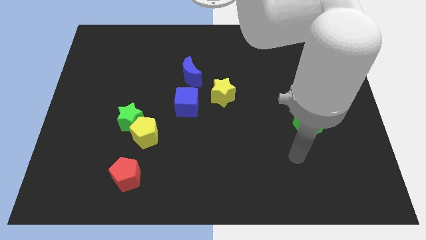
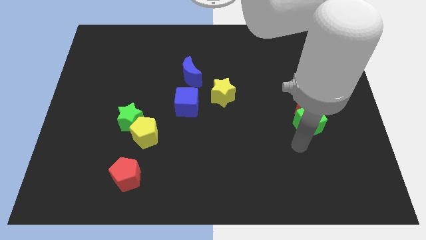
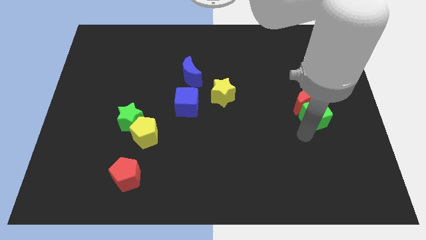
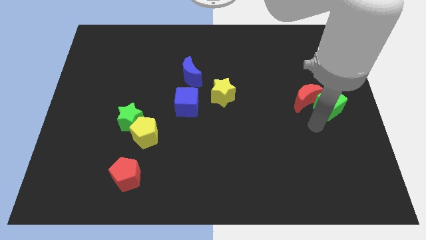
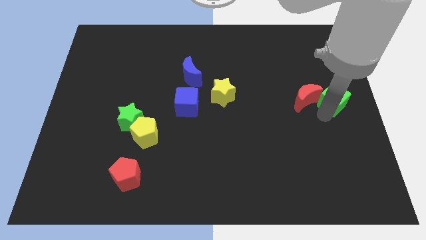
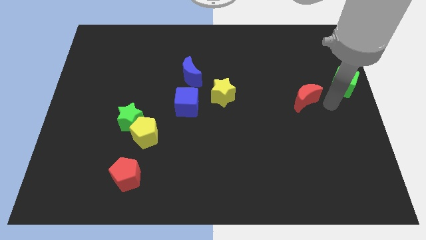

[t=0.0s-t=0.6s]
pull the red moon apart from the green cube

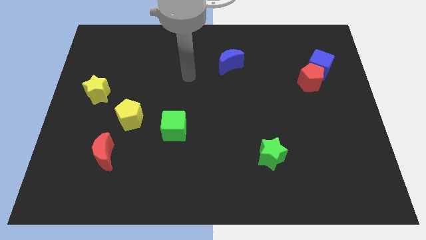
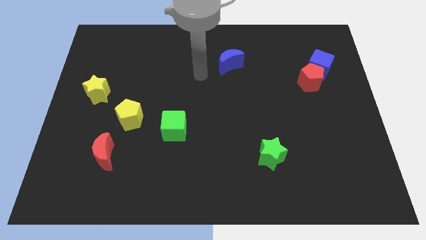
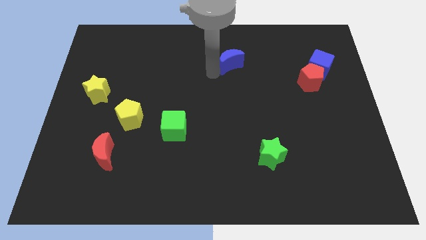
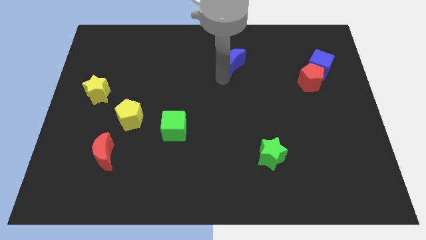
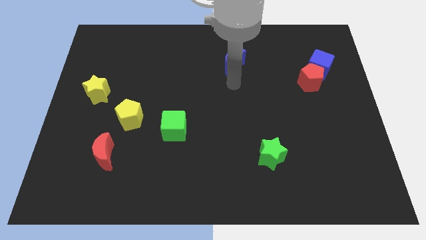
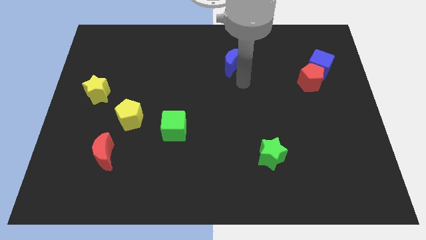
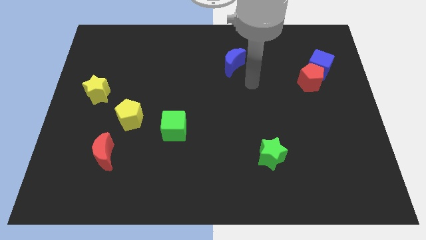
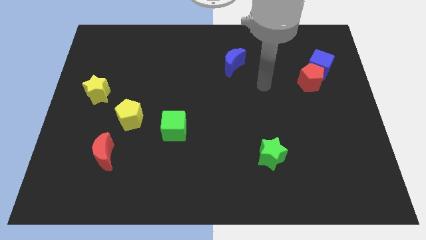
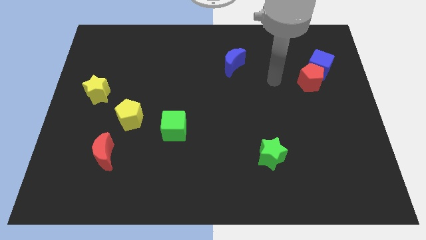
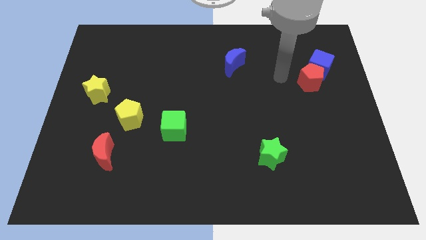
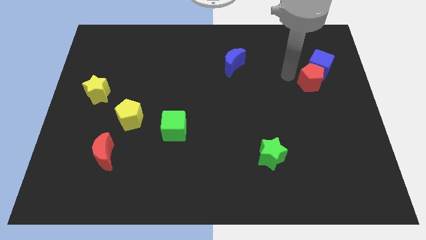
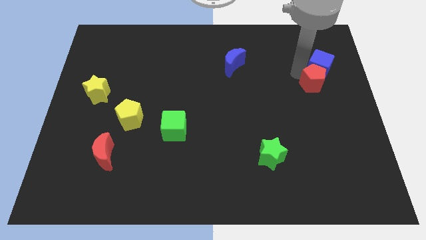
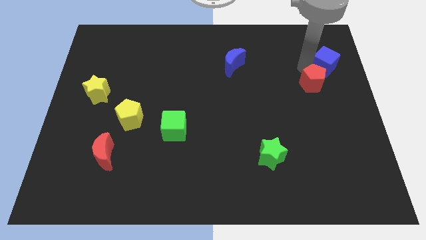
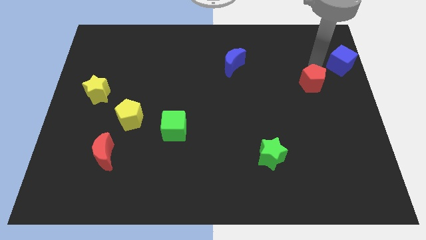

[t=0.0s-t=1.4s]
move the red pentagon away from the blue cube

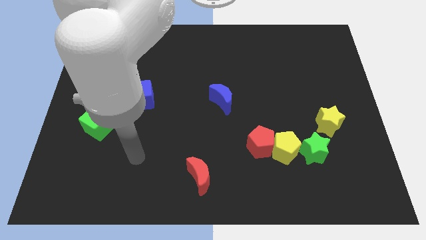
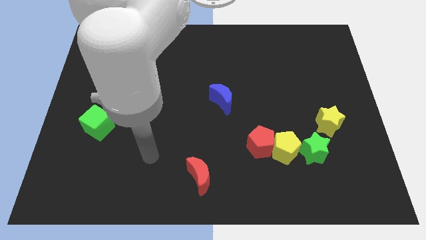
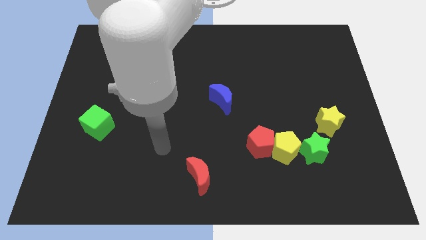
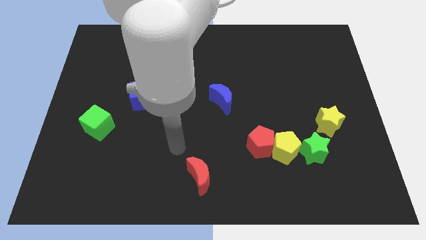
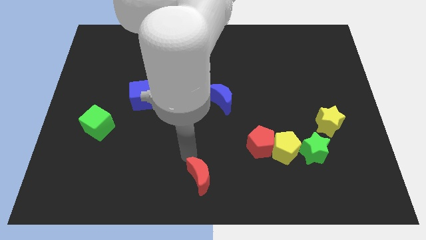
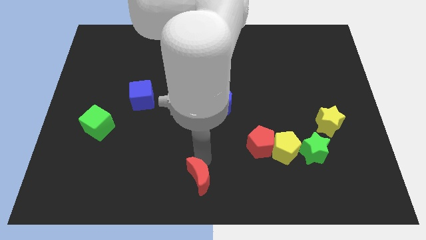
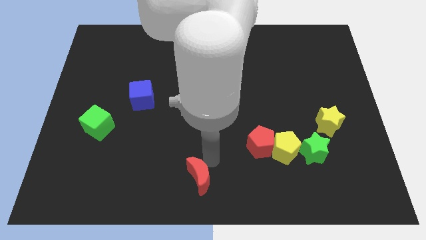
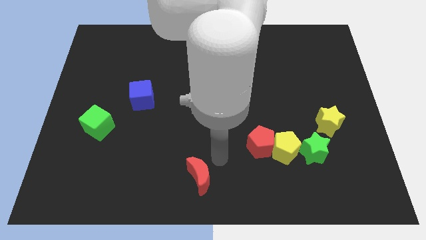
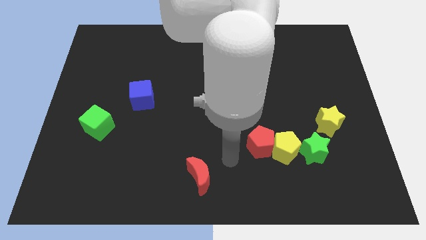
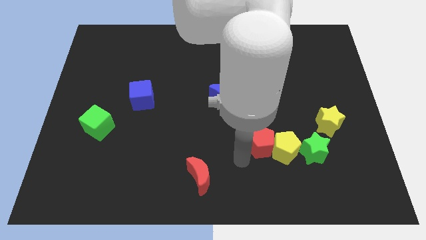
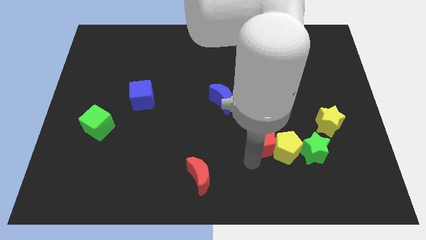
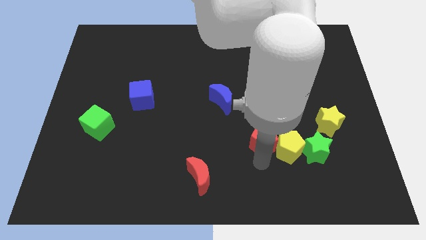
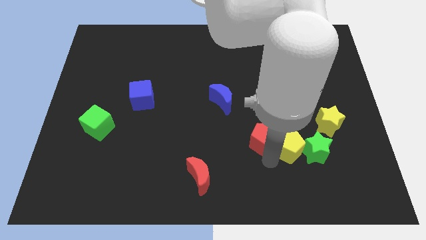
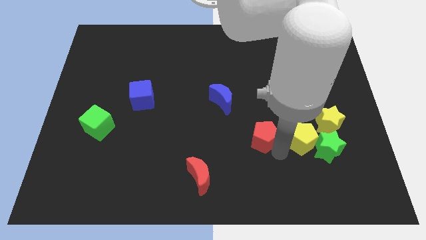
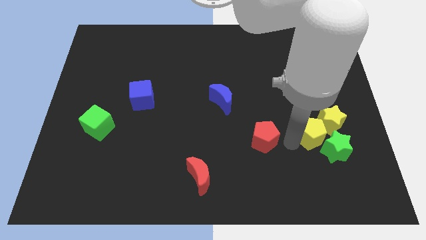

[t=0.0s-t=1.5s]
pull the red pentagon apart from the yellow pentagon

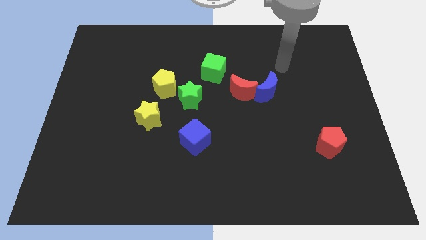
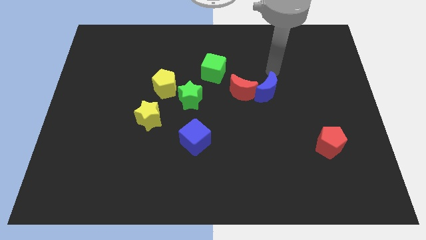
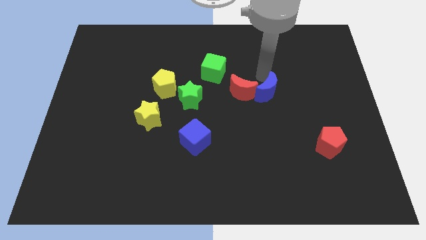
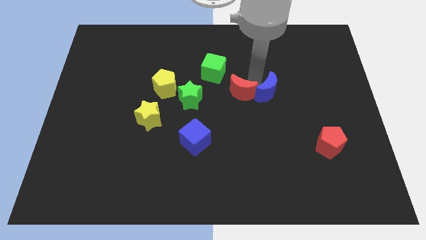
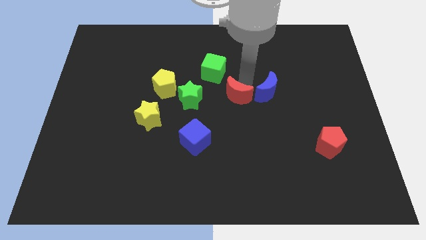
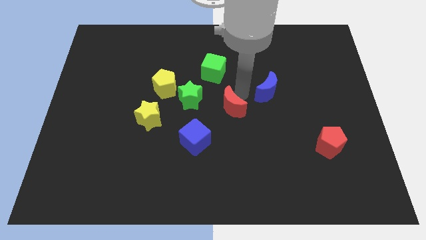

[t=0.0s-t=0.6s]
move the blue moon away from the red moon

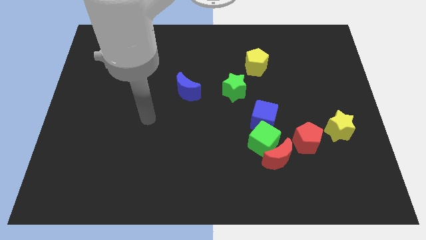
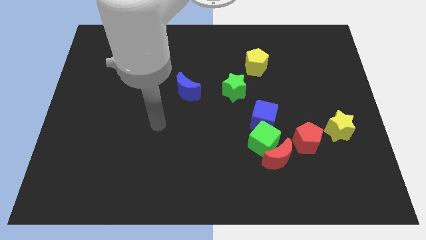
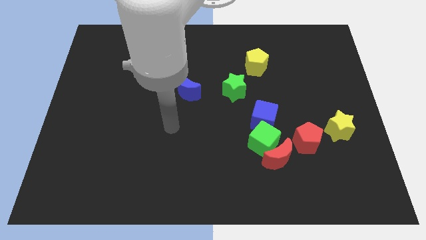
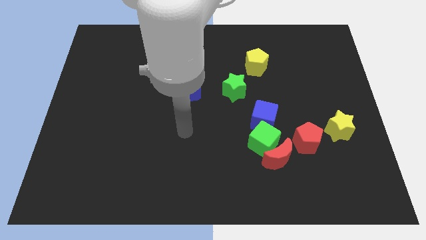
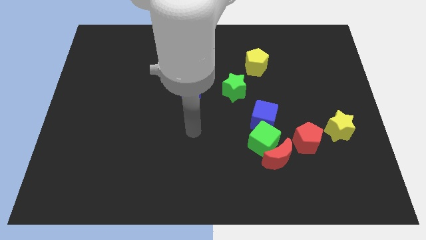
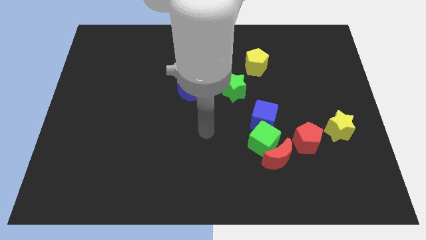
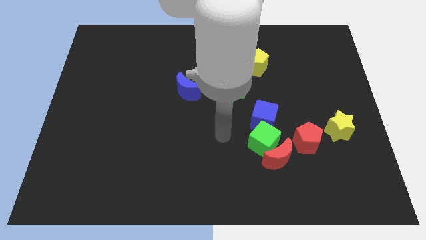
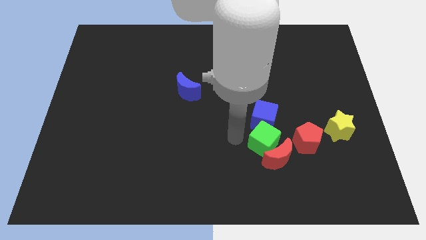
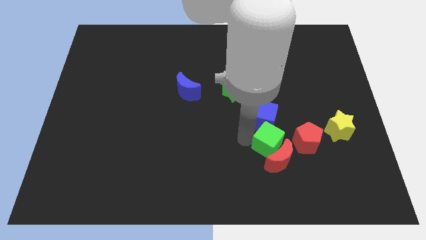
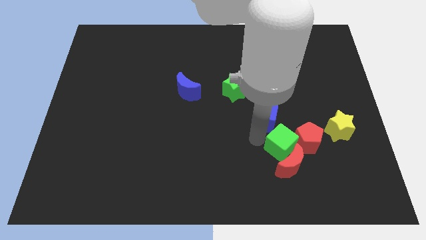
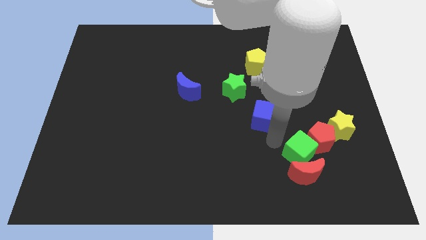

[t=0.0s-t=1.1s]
pull the blue cube apart from the green cube

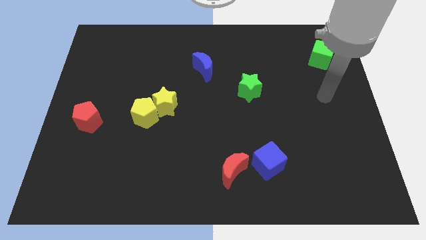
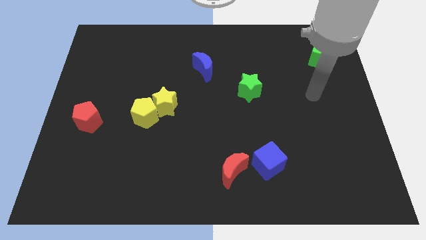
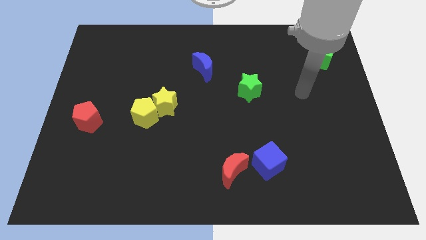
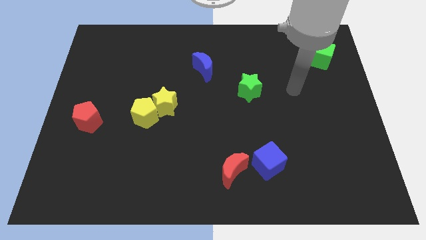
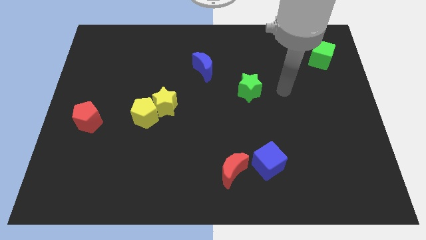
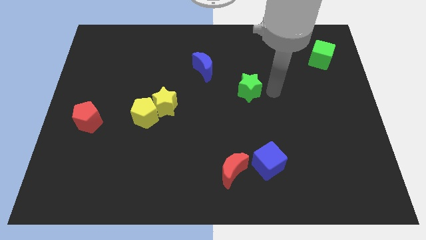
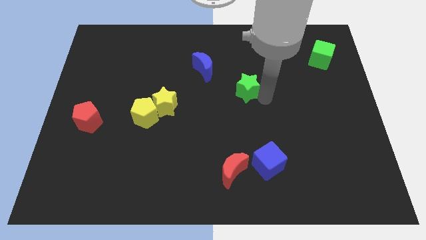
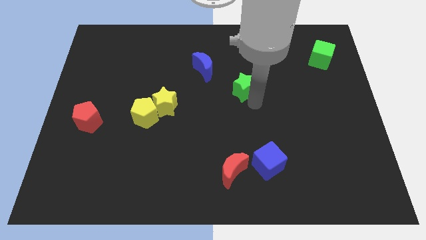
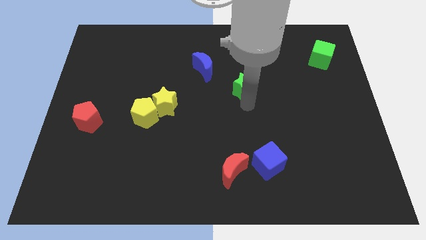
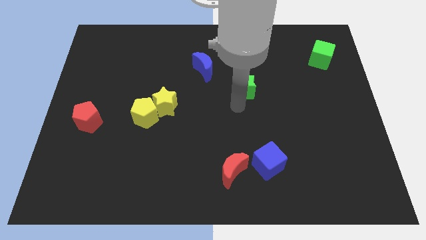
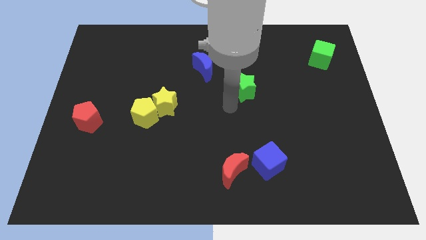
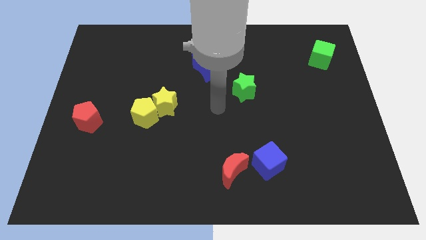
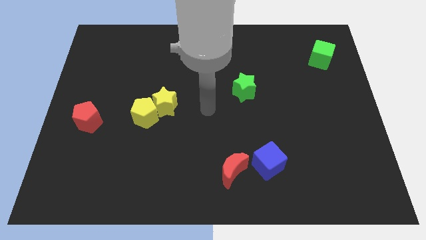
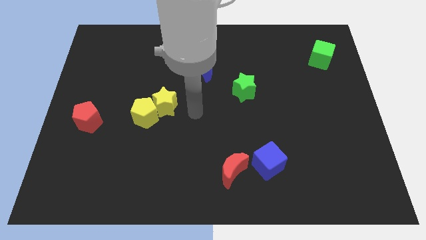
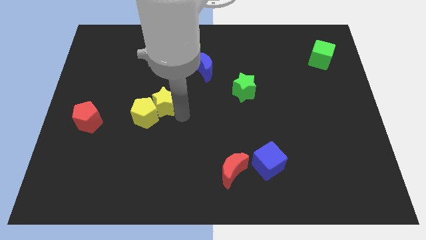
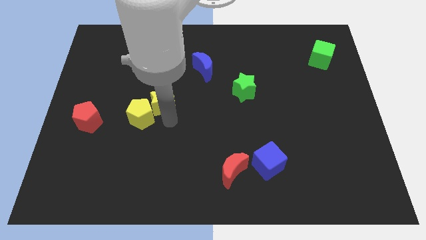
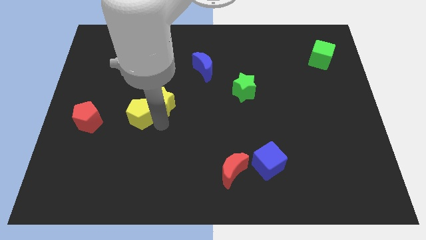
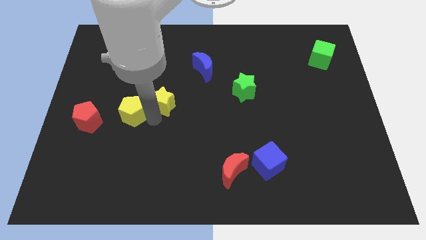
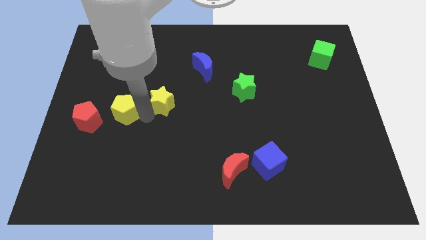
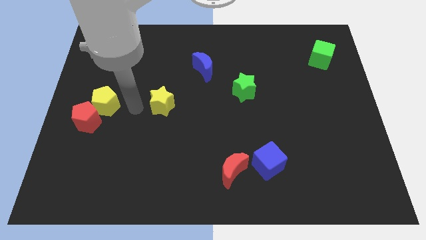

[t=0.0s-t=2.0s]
move the yellow star away from the yellow pentagon

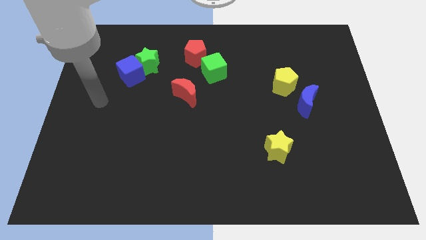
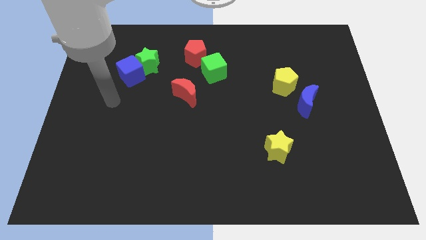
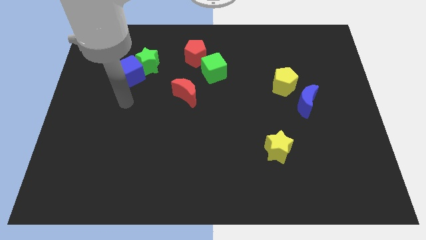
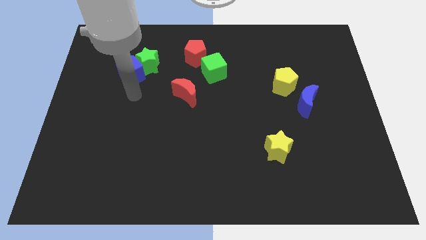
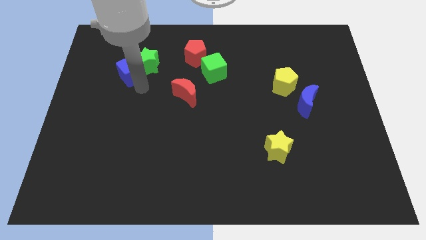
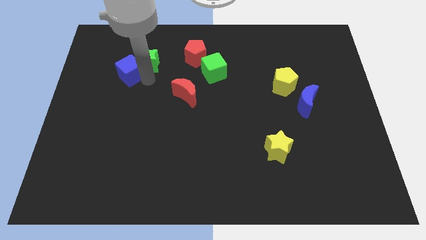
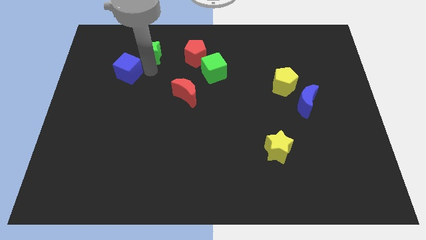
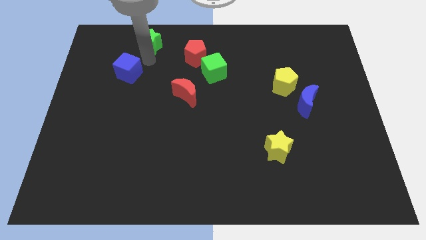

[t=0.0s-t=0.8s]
separate the blue cube from the green star

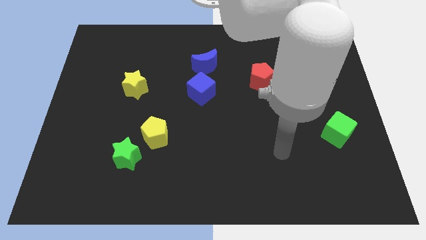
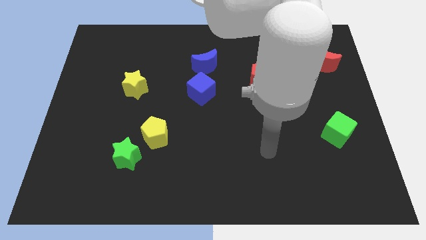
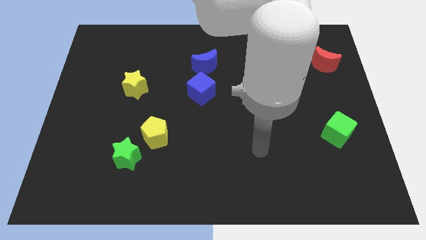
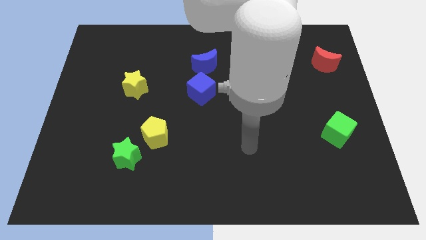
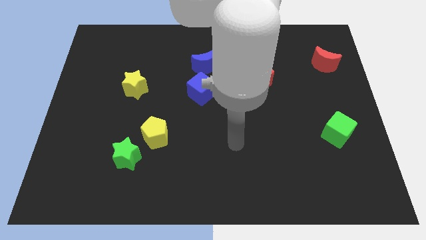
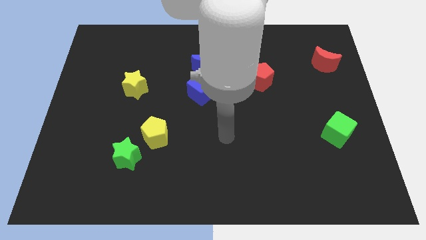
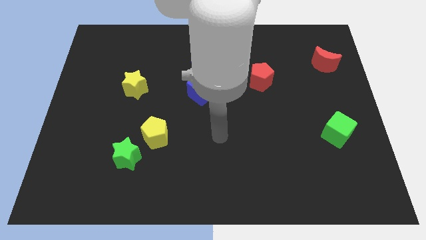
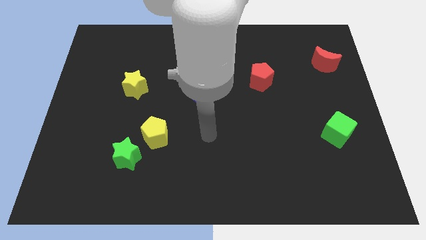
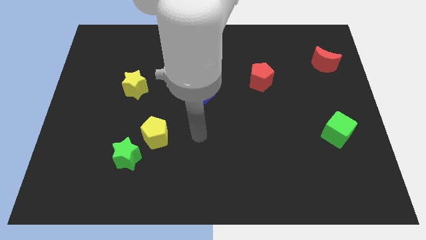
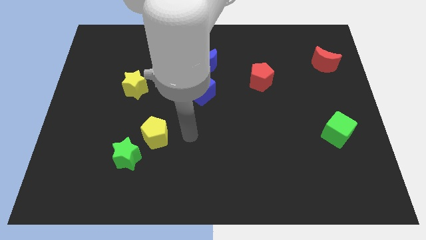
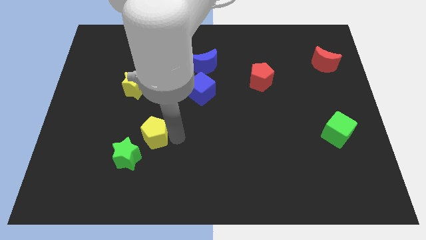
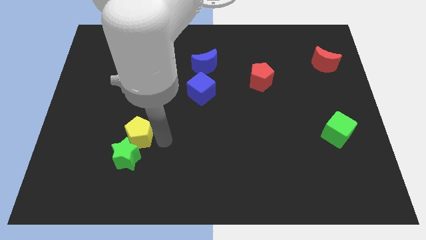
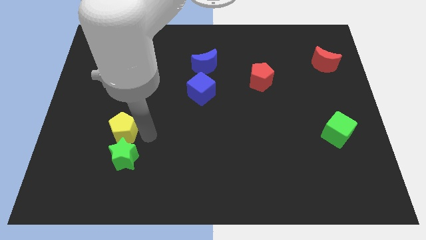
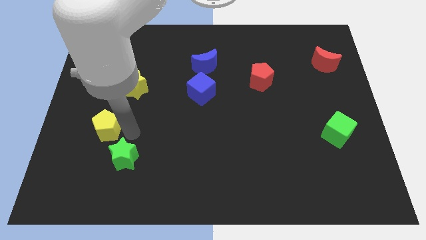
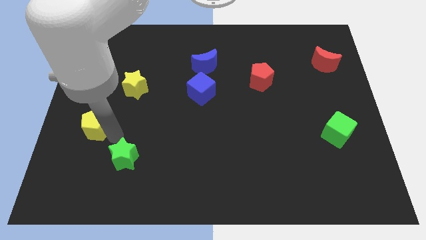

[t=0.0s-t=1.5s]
pull the green star apart from the yellow pentagon
